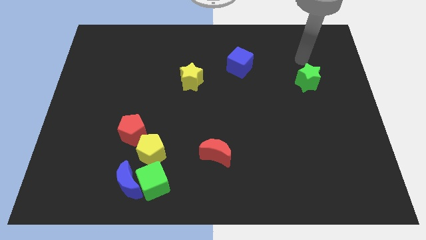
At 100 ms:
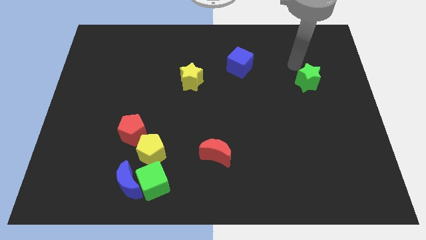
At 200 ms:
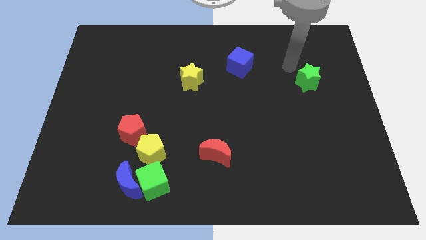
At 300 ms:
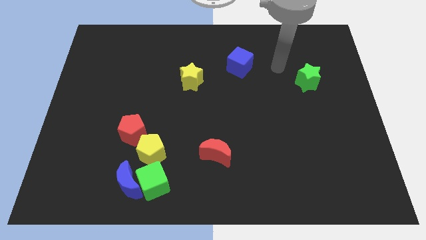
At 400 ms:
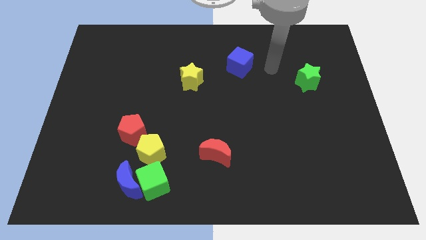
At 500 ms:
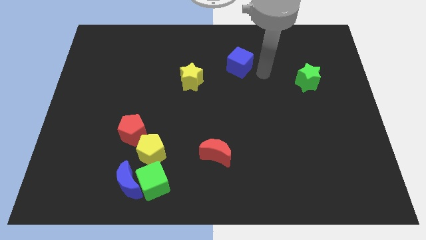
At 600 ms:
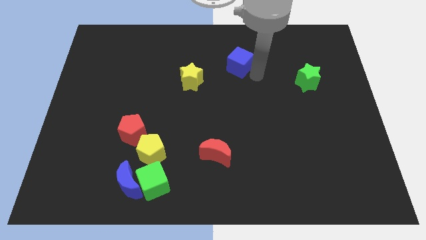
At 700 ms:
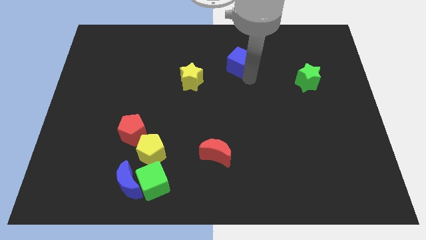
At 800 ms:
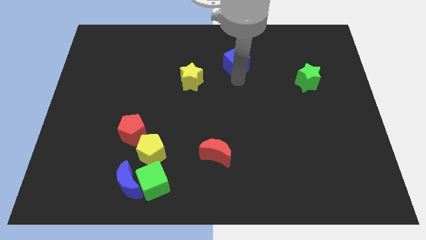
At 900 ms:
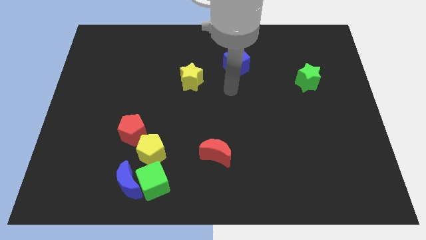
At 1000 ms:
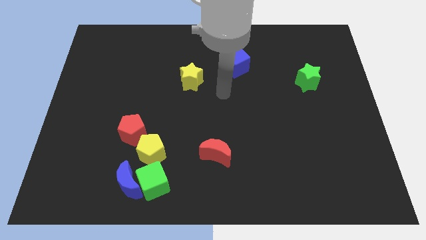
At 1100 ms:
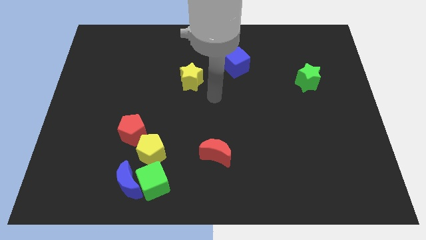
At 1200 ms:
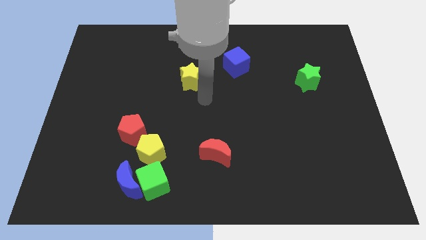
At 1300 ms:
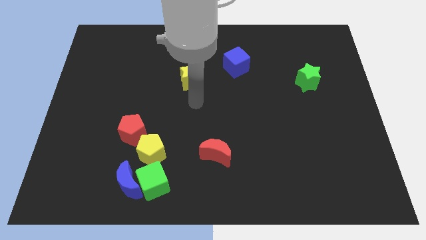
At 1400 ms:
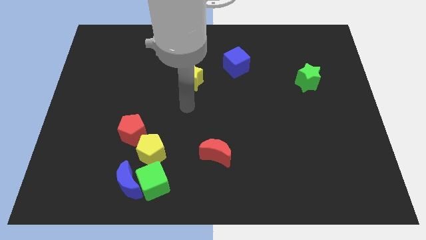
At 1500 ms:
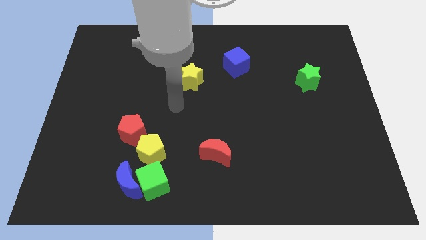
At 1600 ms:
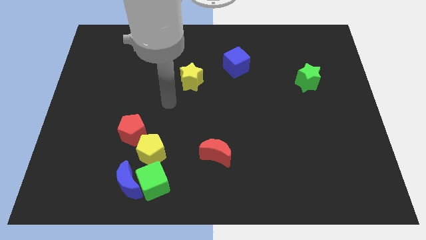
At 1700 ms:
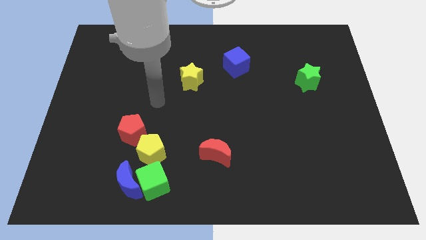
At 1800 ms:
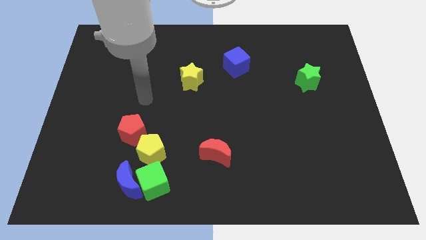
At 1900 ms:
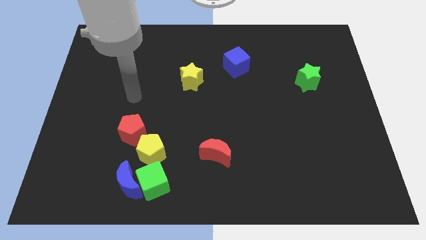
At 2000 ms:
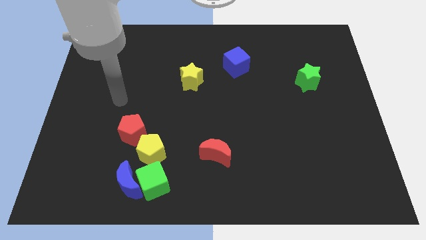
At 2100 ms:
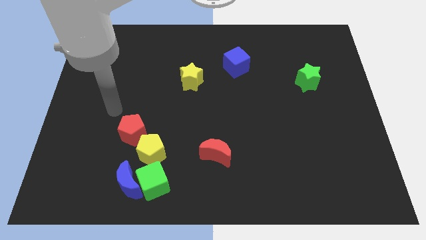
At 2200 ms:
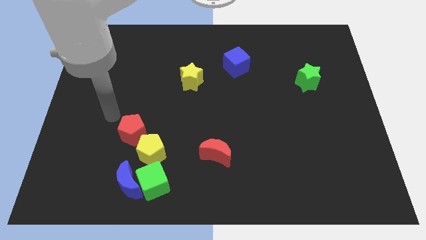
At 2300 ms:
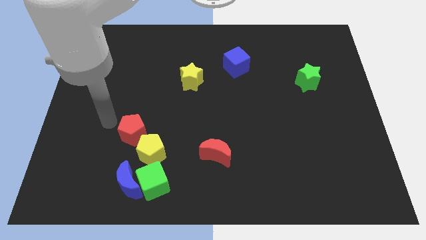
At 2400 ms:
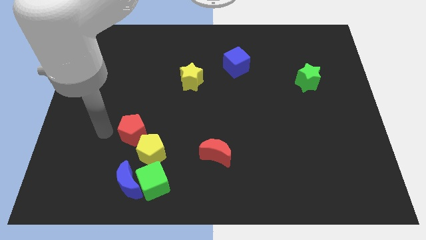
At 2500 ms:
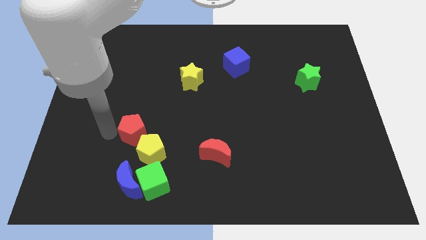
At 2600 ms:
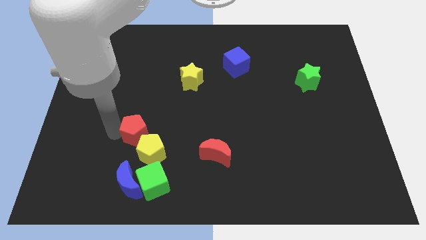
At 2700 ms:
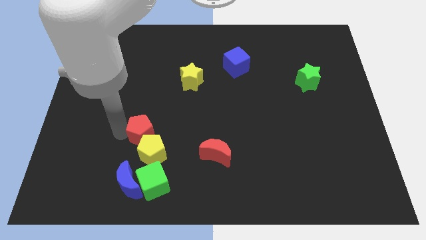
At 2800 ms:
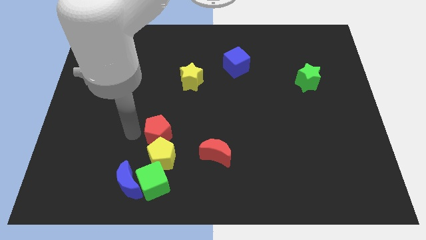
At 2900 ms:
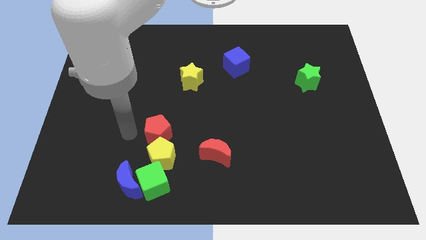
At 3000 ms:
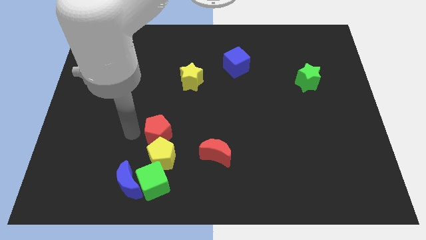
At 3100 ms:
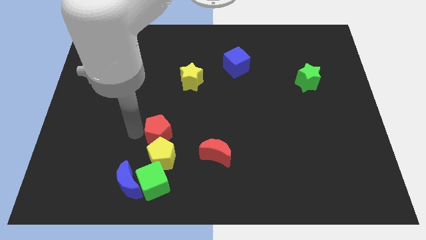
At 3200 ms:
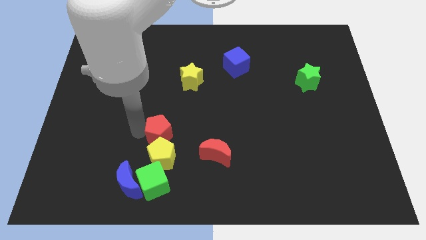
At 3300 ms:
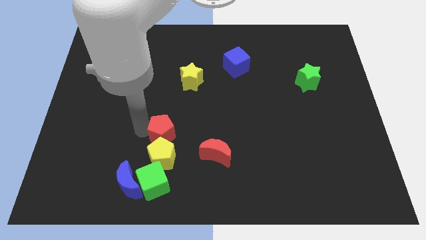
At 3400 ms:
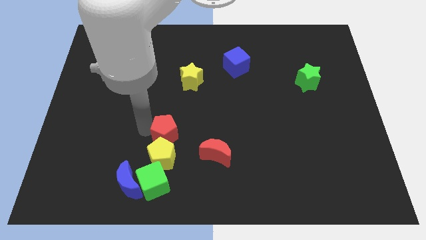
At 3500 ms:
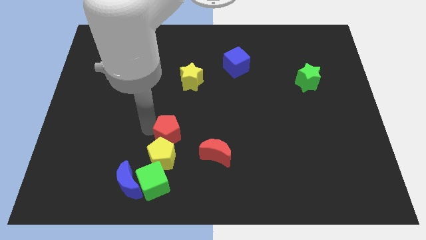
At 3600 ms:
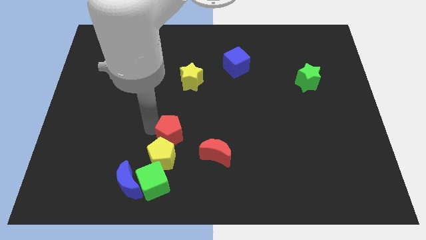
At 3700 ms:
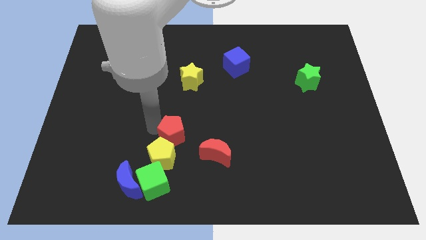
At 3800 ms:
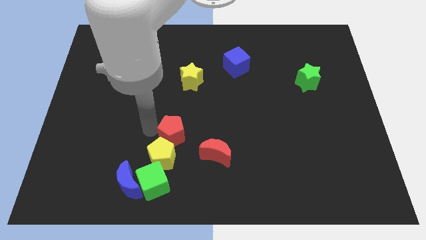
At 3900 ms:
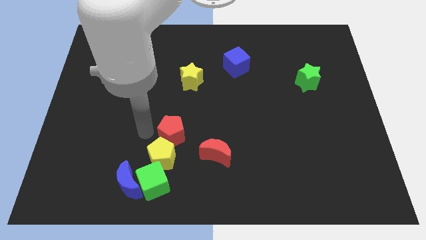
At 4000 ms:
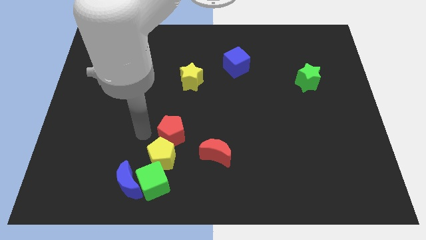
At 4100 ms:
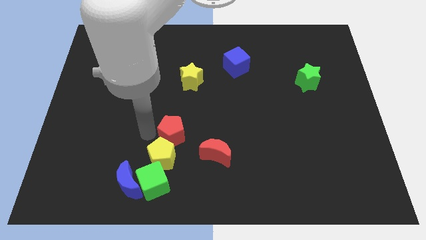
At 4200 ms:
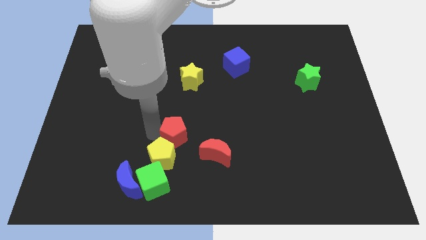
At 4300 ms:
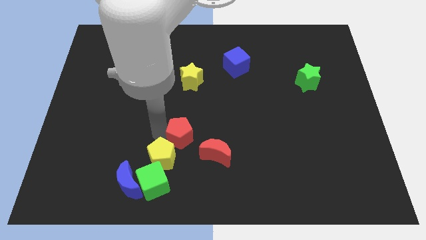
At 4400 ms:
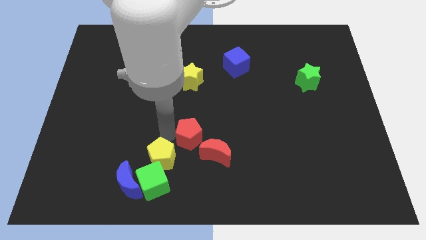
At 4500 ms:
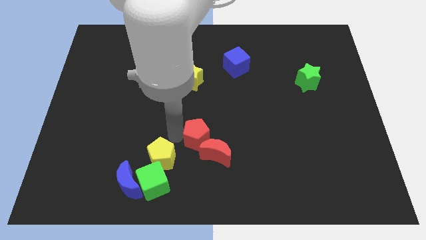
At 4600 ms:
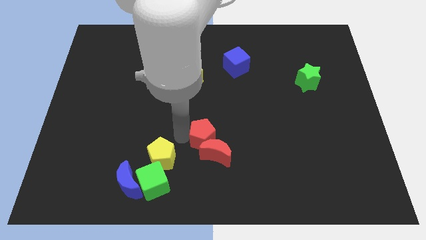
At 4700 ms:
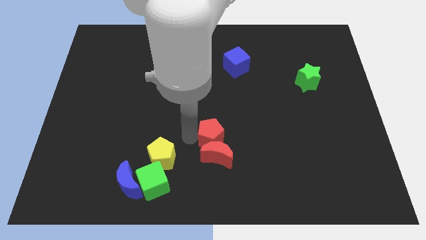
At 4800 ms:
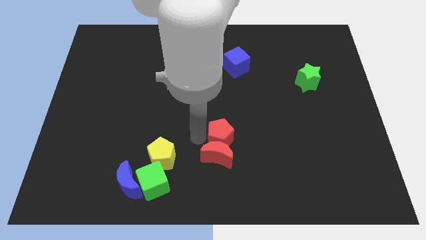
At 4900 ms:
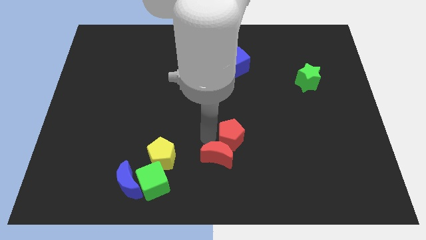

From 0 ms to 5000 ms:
push the red pentagon to the right

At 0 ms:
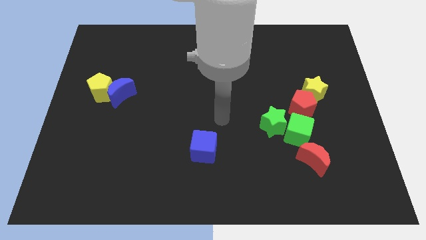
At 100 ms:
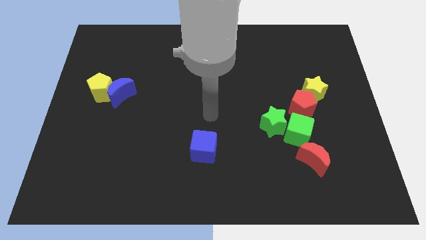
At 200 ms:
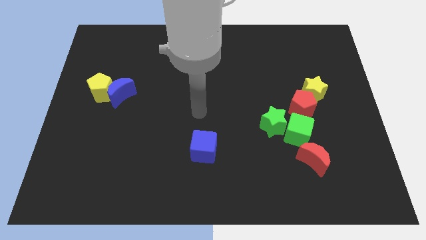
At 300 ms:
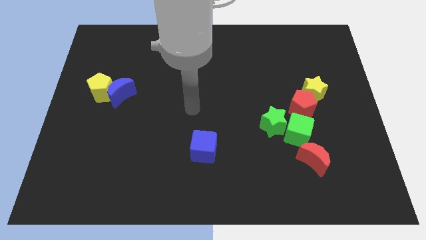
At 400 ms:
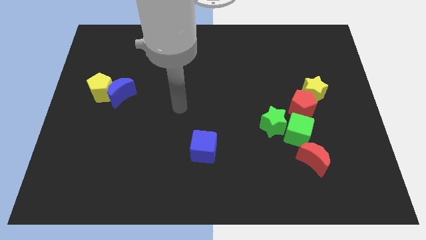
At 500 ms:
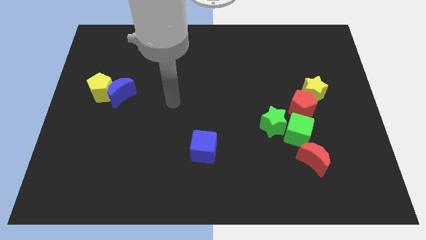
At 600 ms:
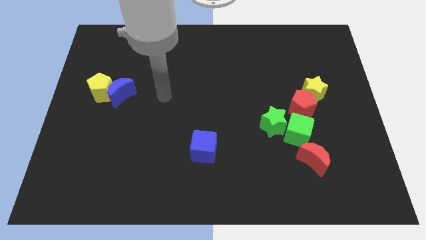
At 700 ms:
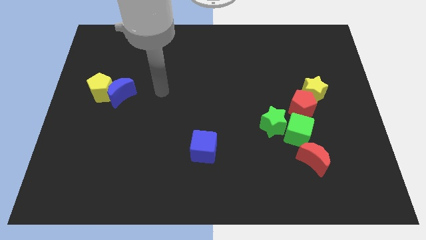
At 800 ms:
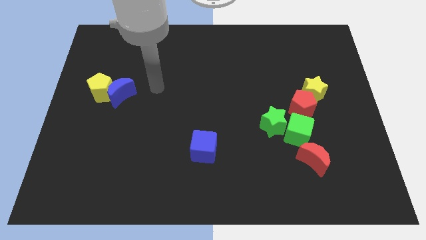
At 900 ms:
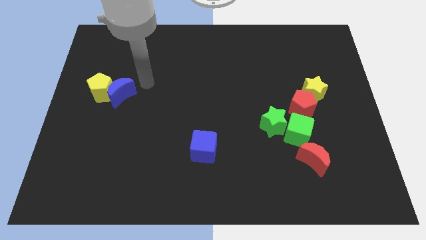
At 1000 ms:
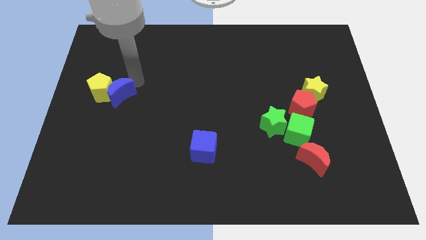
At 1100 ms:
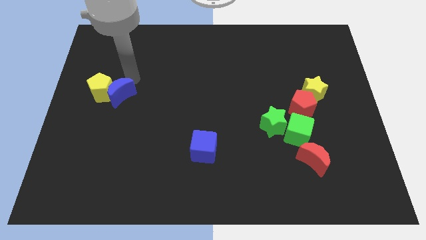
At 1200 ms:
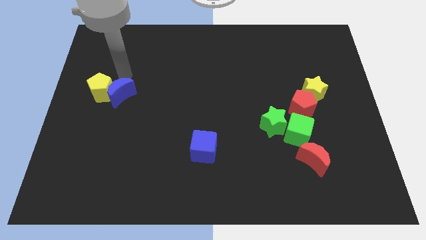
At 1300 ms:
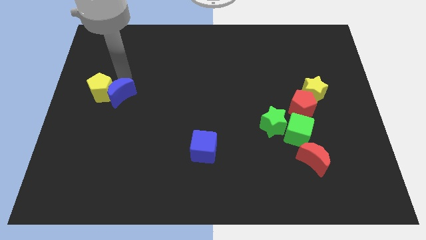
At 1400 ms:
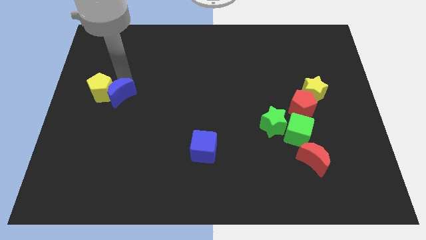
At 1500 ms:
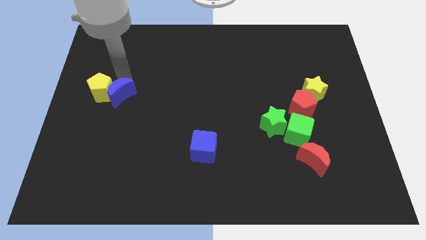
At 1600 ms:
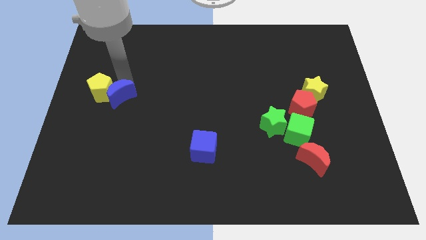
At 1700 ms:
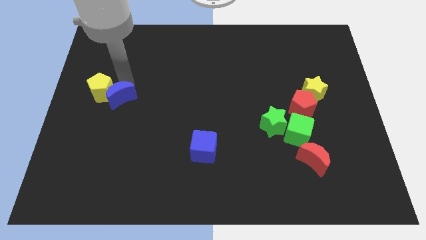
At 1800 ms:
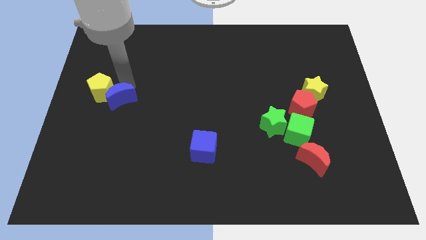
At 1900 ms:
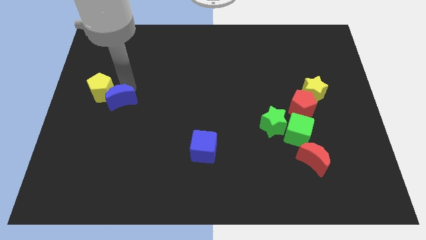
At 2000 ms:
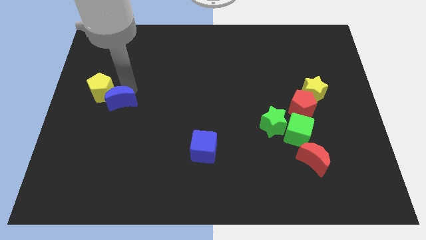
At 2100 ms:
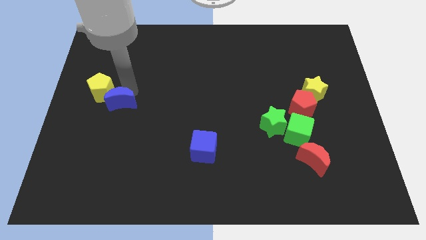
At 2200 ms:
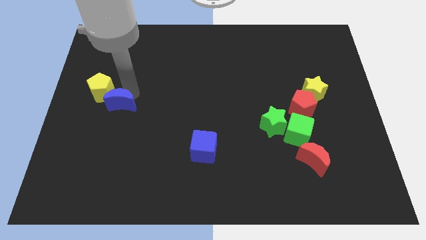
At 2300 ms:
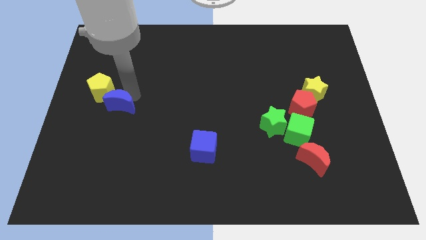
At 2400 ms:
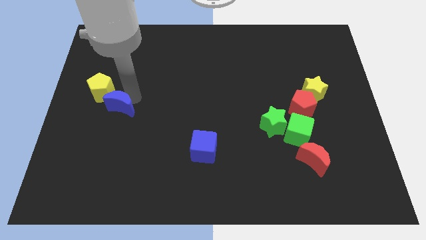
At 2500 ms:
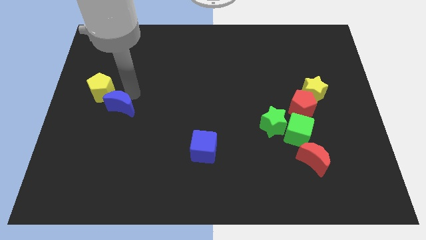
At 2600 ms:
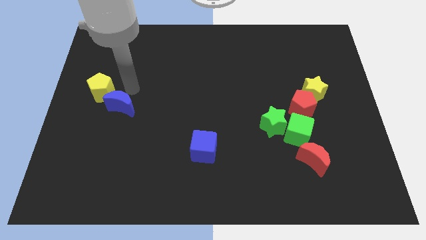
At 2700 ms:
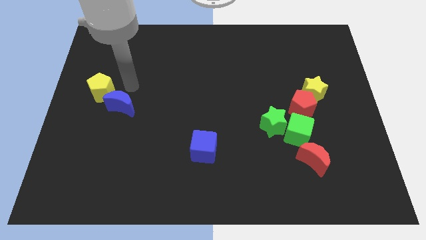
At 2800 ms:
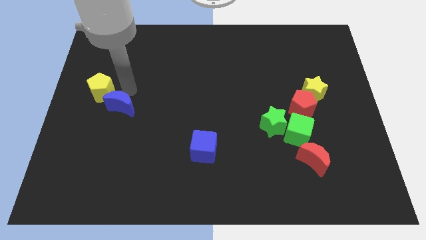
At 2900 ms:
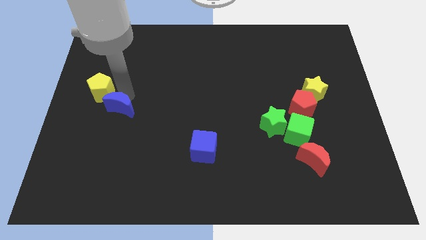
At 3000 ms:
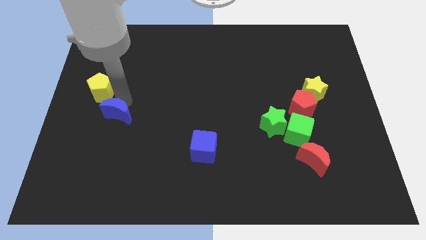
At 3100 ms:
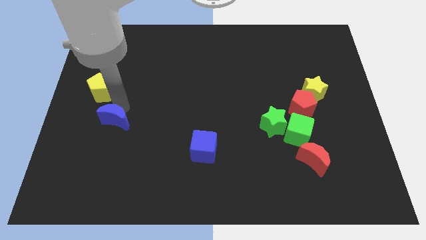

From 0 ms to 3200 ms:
slightly move the blue moon downwards
